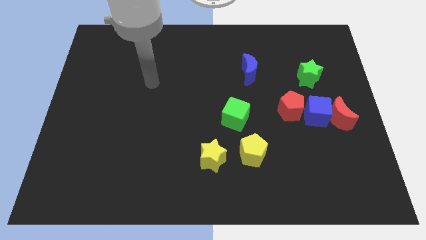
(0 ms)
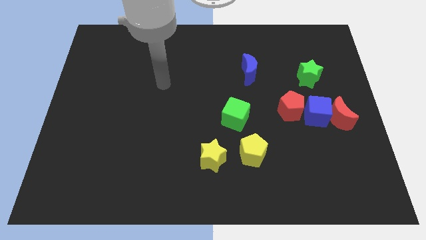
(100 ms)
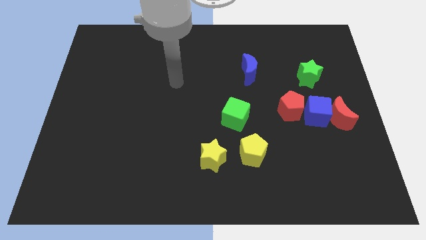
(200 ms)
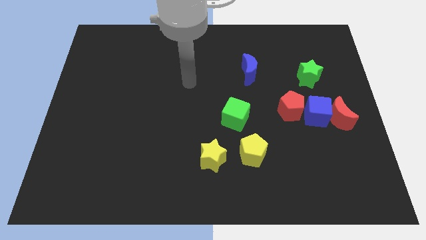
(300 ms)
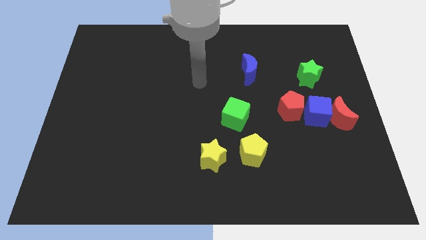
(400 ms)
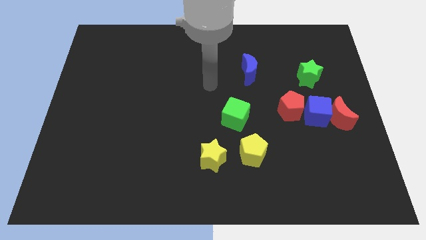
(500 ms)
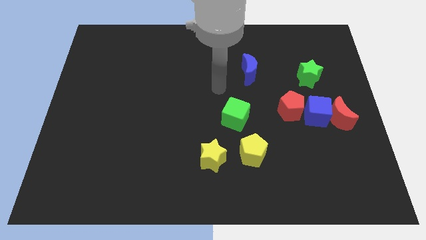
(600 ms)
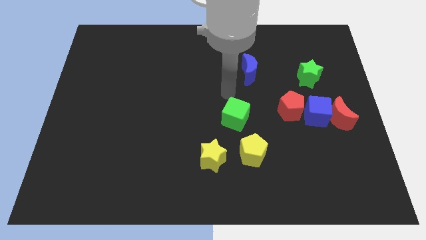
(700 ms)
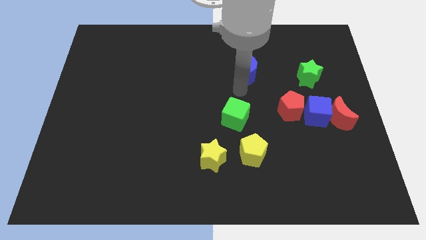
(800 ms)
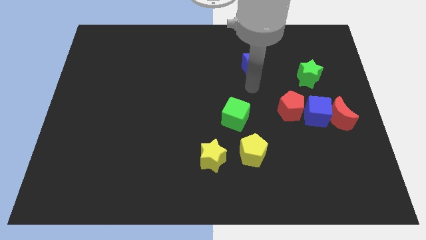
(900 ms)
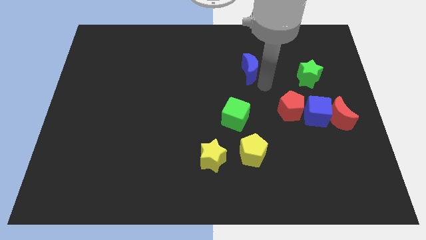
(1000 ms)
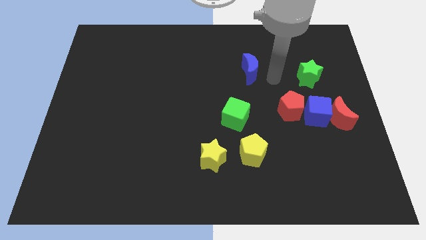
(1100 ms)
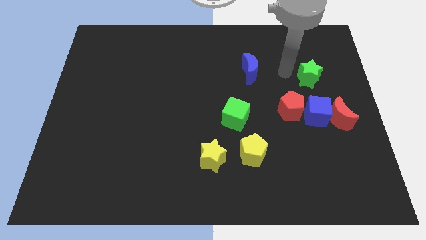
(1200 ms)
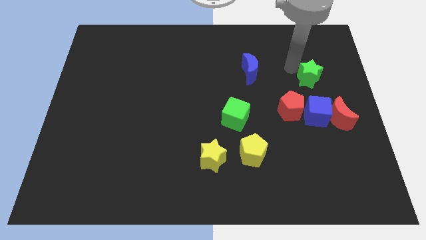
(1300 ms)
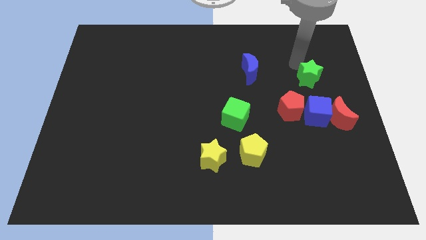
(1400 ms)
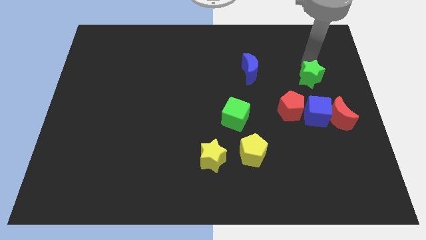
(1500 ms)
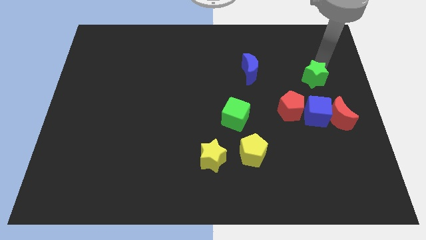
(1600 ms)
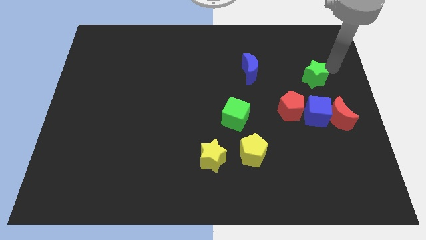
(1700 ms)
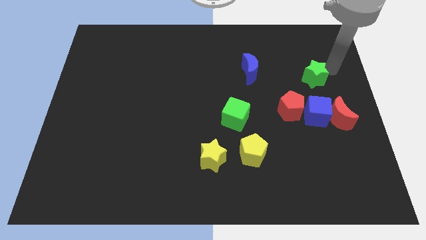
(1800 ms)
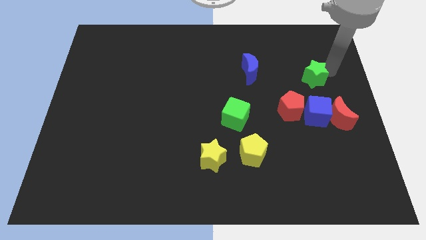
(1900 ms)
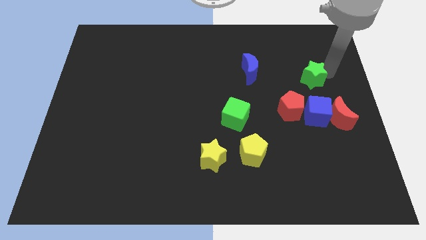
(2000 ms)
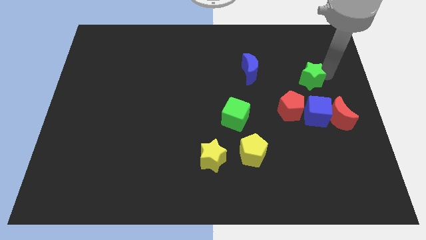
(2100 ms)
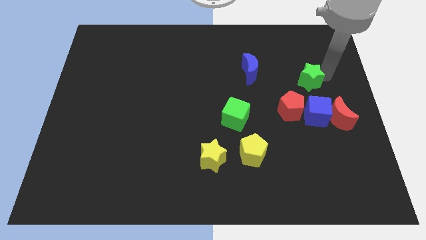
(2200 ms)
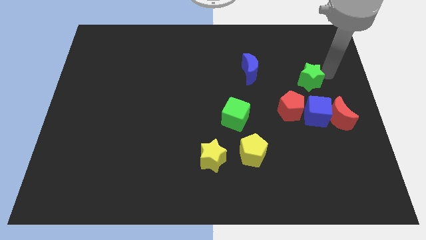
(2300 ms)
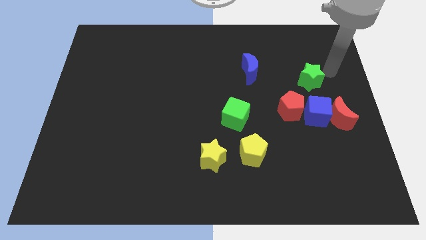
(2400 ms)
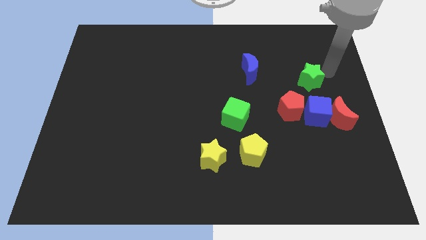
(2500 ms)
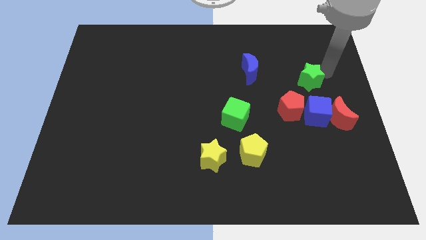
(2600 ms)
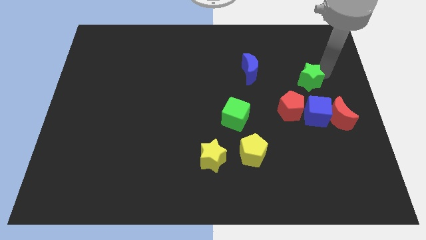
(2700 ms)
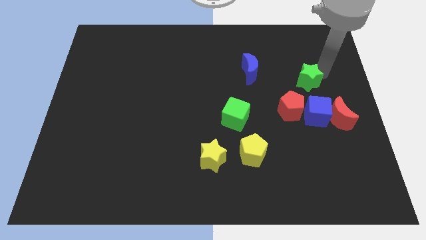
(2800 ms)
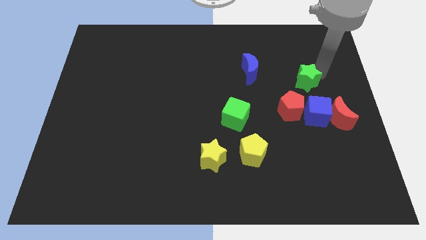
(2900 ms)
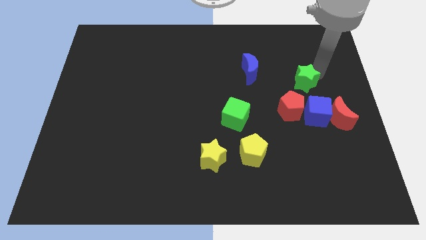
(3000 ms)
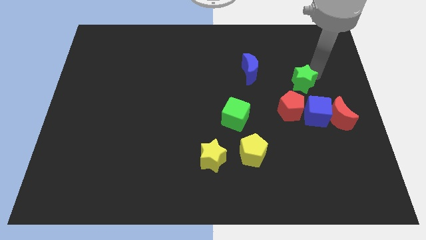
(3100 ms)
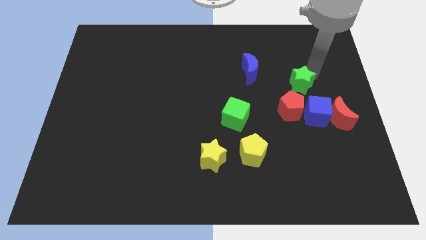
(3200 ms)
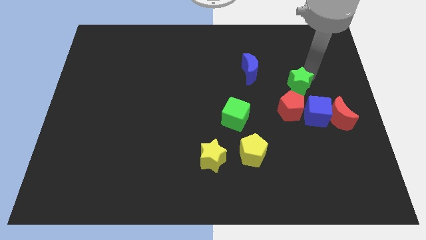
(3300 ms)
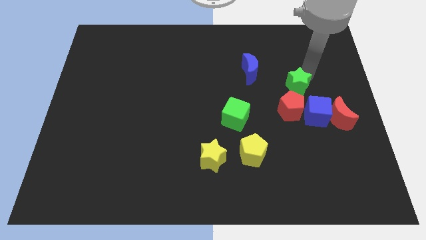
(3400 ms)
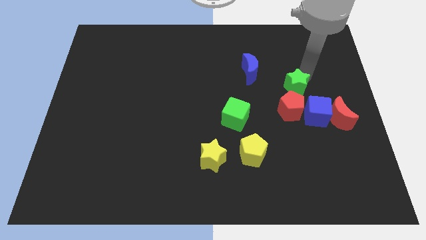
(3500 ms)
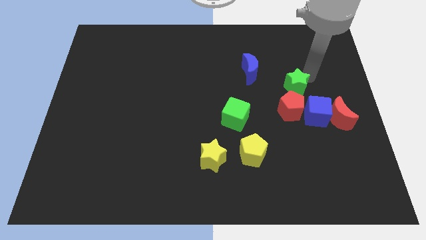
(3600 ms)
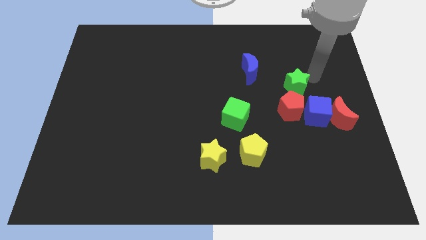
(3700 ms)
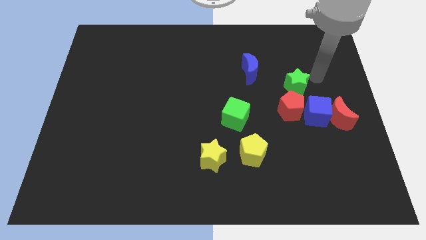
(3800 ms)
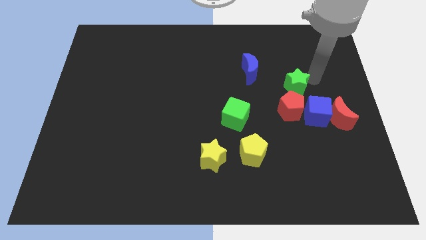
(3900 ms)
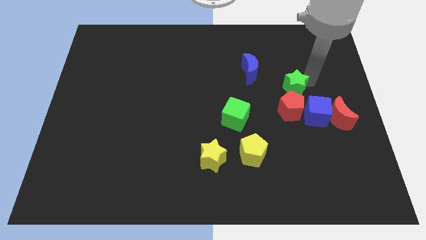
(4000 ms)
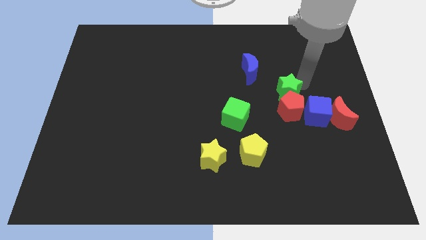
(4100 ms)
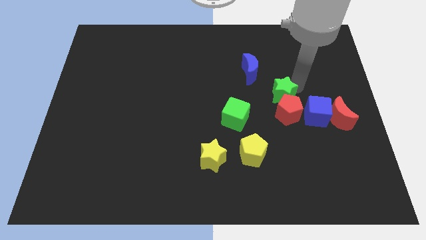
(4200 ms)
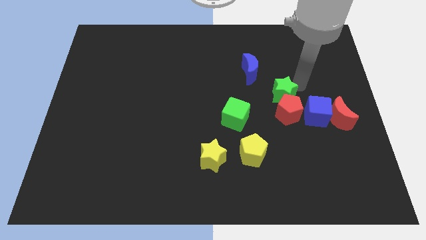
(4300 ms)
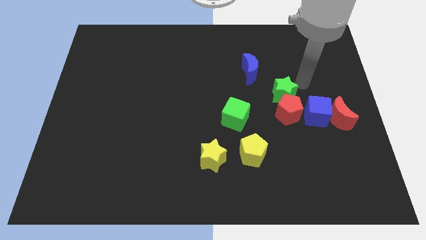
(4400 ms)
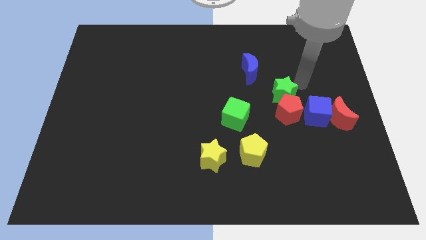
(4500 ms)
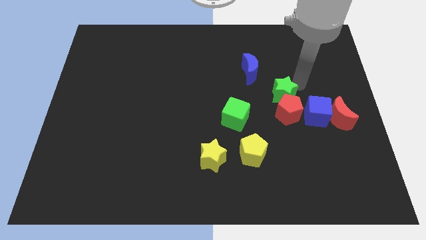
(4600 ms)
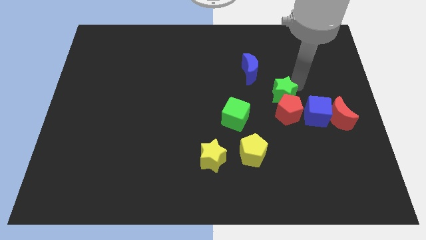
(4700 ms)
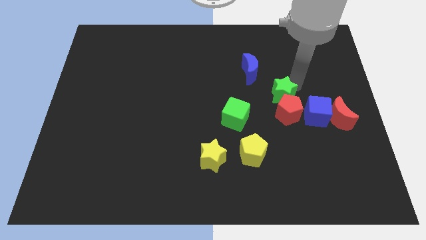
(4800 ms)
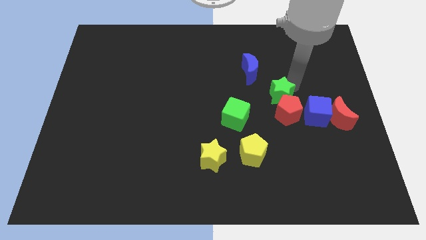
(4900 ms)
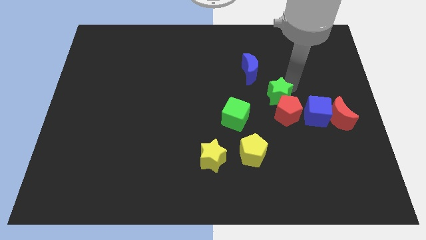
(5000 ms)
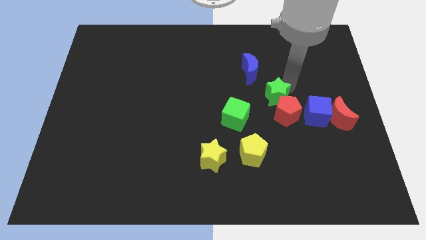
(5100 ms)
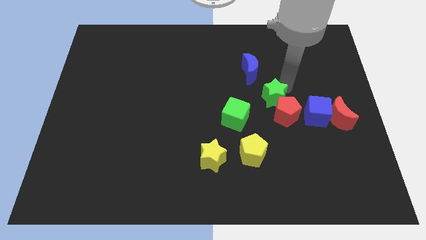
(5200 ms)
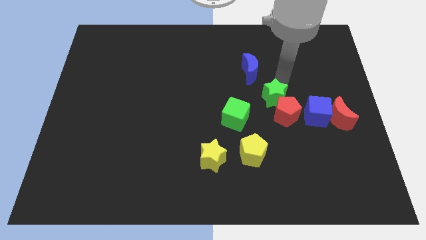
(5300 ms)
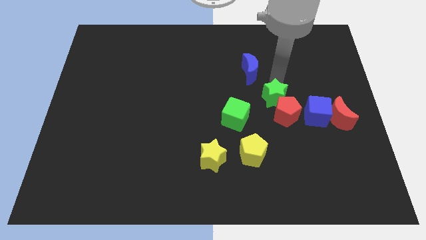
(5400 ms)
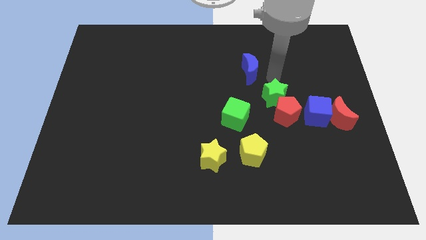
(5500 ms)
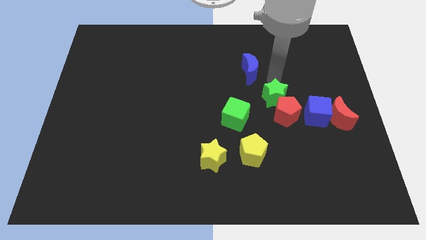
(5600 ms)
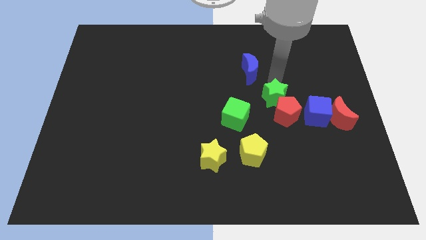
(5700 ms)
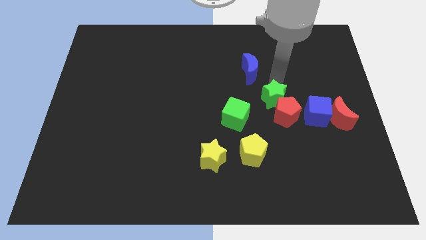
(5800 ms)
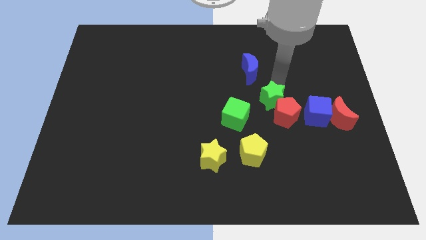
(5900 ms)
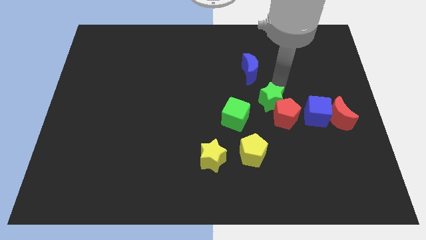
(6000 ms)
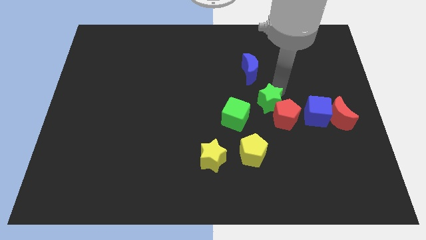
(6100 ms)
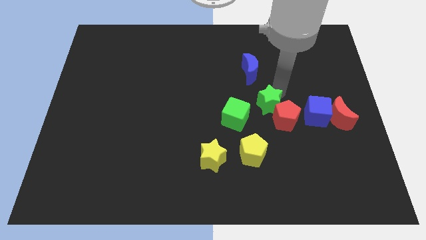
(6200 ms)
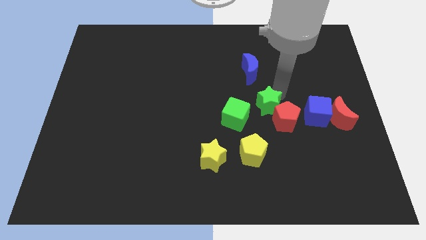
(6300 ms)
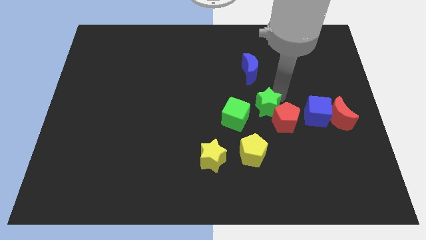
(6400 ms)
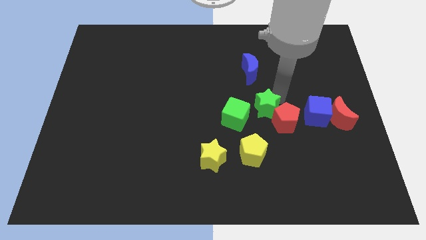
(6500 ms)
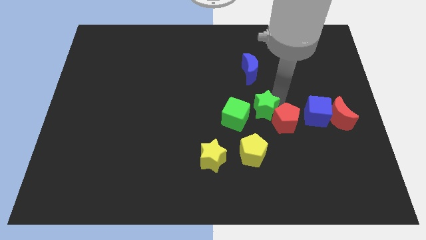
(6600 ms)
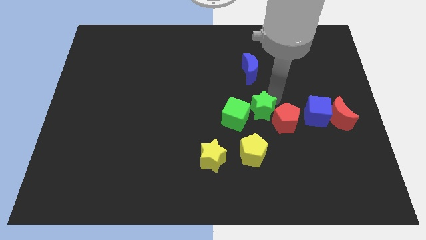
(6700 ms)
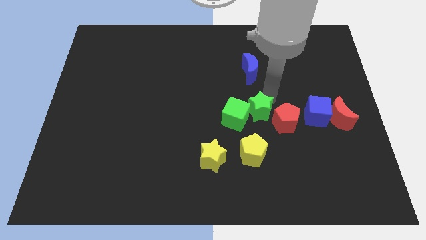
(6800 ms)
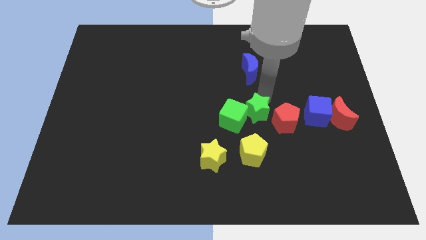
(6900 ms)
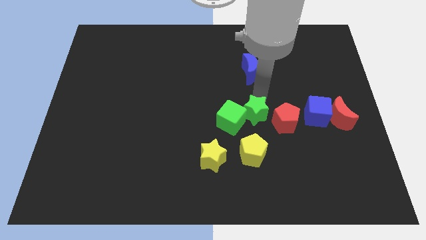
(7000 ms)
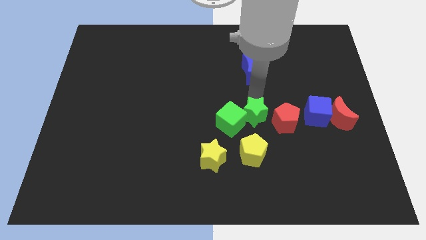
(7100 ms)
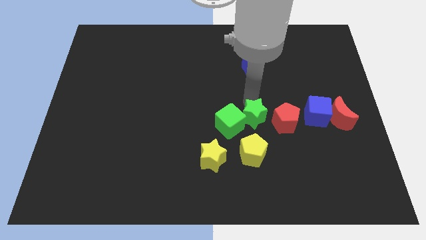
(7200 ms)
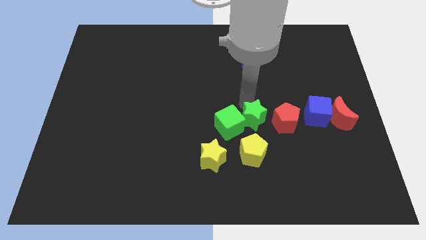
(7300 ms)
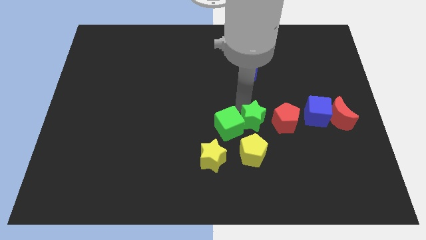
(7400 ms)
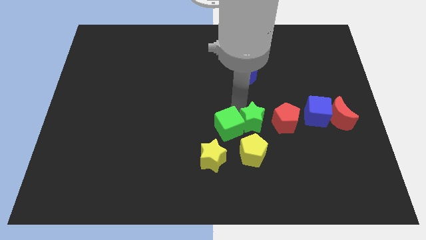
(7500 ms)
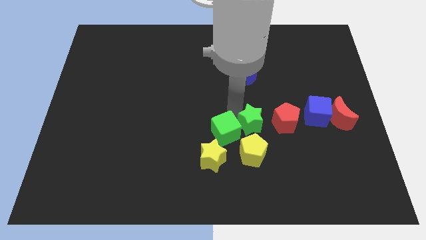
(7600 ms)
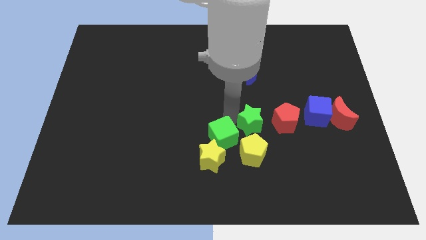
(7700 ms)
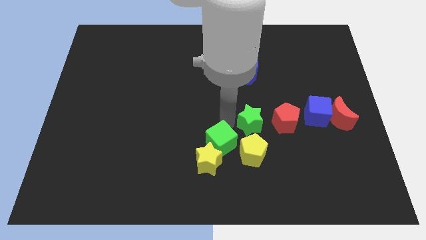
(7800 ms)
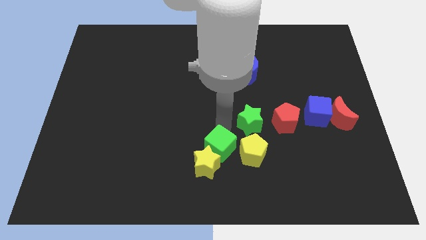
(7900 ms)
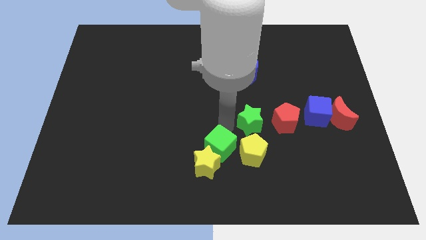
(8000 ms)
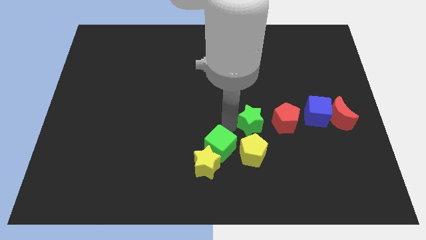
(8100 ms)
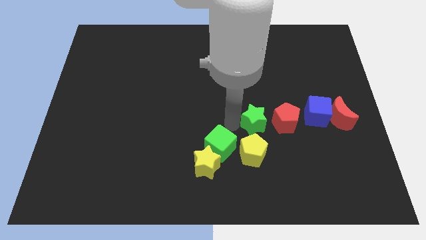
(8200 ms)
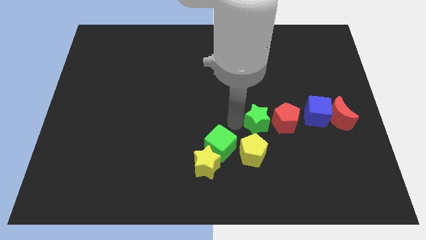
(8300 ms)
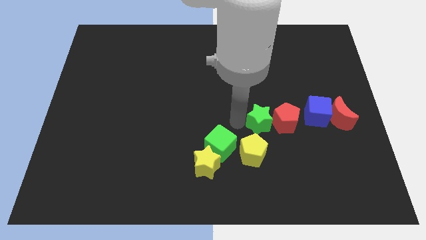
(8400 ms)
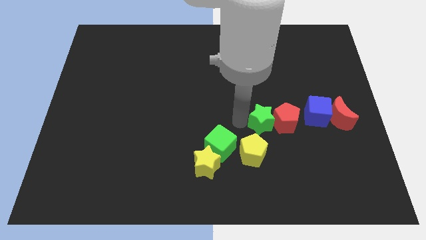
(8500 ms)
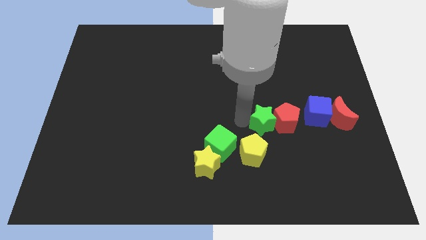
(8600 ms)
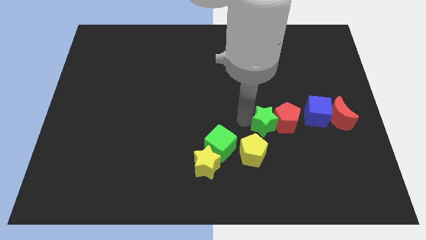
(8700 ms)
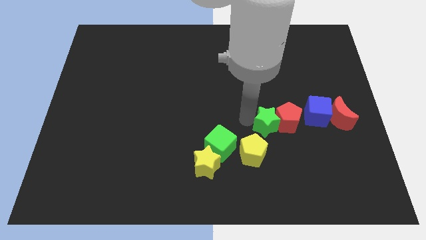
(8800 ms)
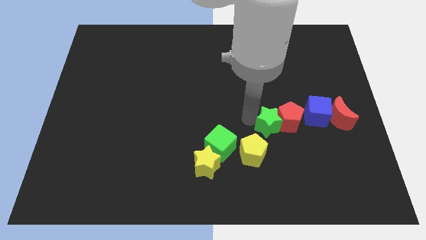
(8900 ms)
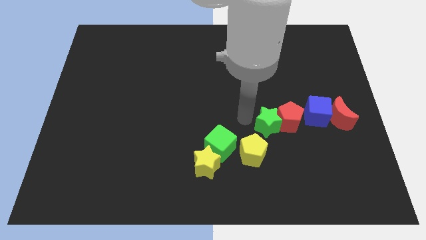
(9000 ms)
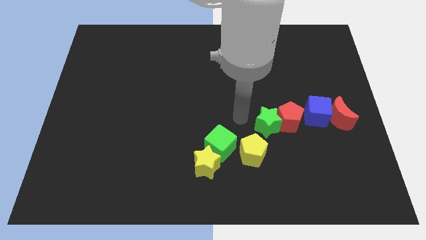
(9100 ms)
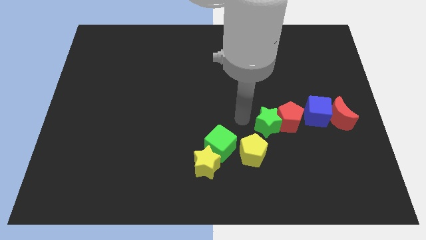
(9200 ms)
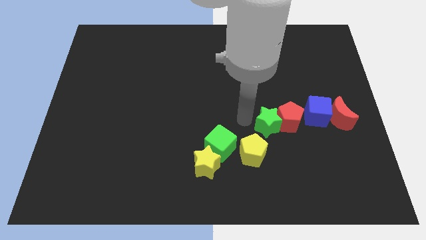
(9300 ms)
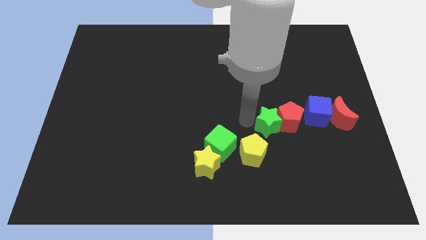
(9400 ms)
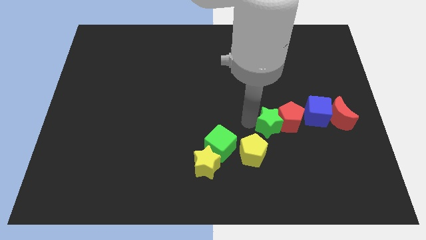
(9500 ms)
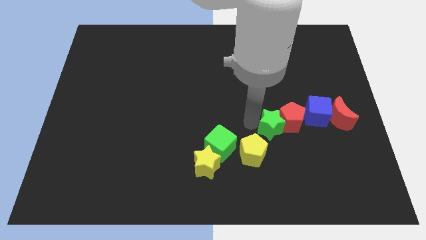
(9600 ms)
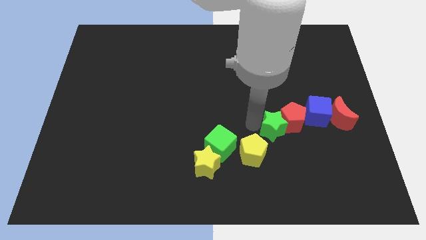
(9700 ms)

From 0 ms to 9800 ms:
put the green star just left of the red moon
